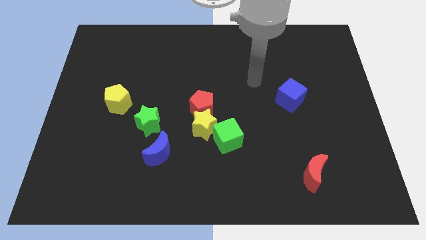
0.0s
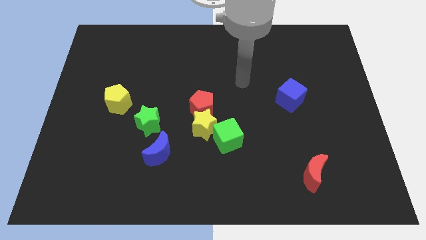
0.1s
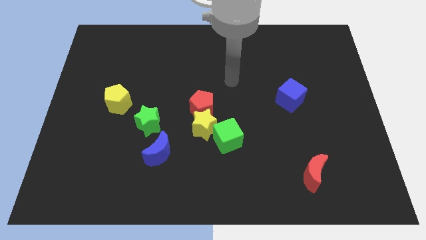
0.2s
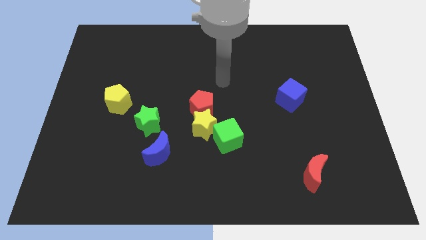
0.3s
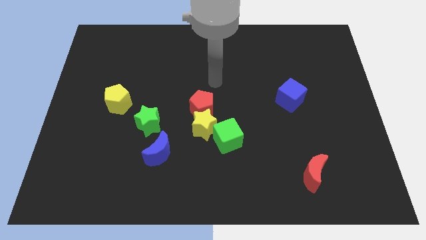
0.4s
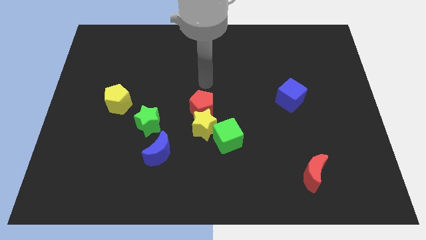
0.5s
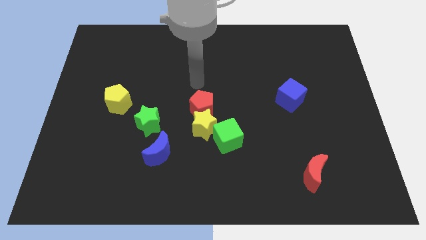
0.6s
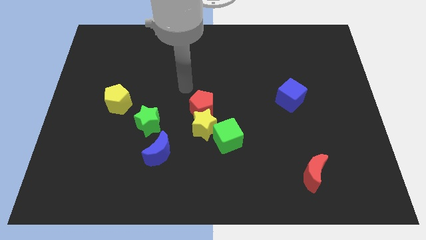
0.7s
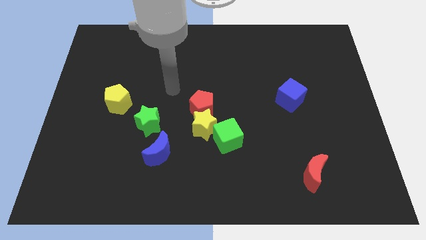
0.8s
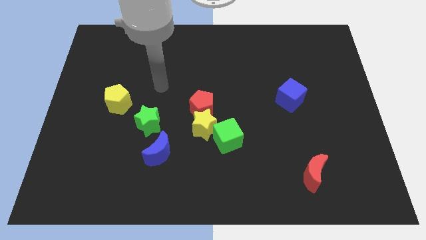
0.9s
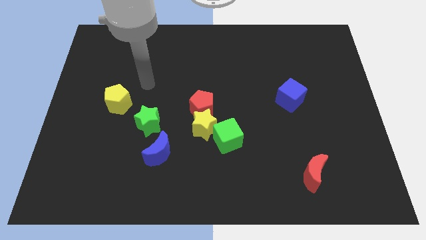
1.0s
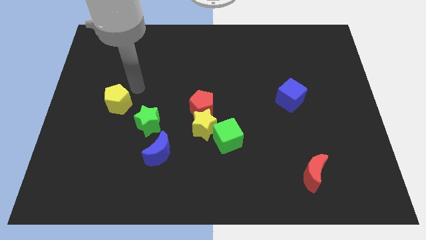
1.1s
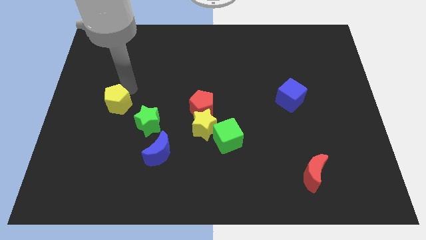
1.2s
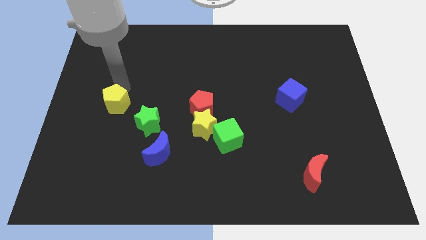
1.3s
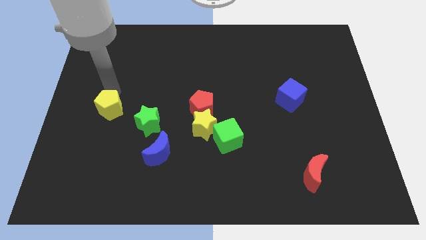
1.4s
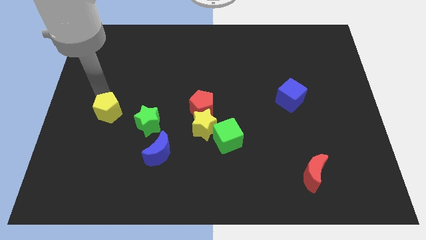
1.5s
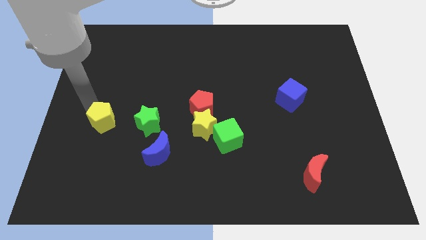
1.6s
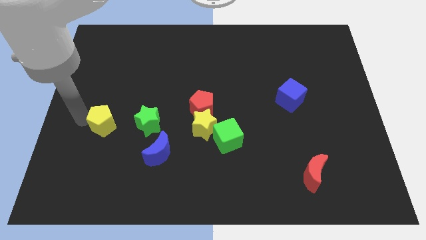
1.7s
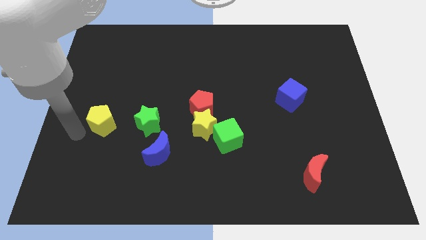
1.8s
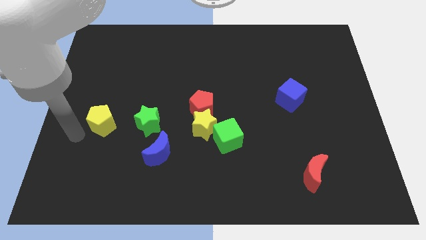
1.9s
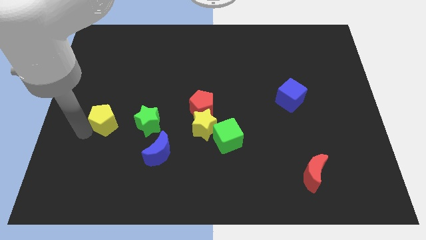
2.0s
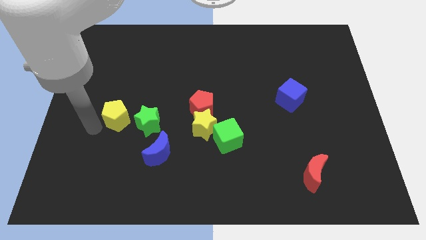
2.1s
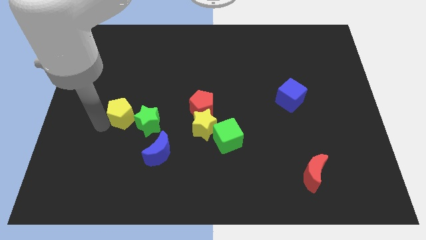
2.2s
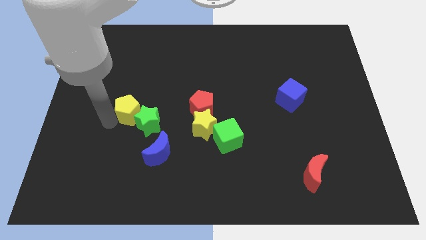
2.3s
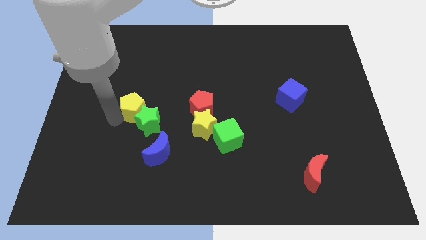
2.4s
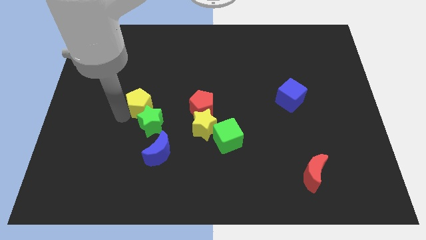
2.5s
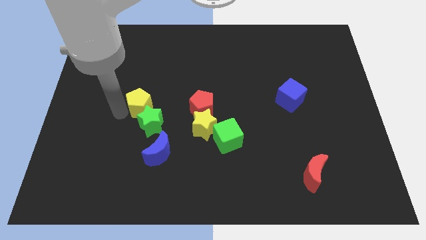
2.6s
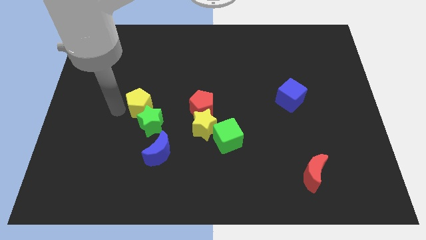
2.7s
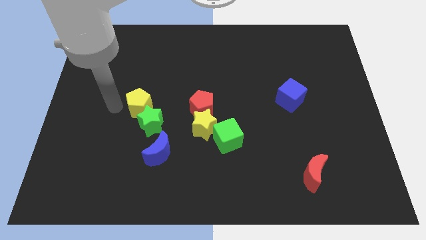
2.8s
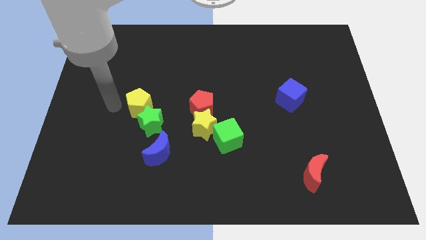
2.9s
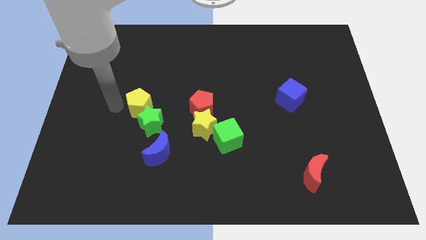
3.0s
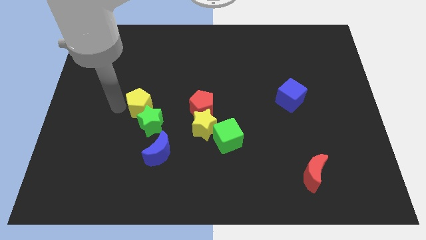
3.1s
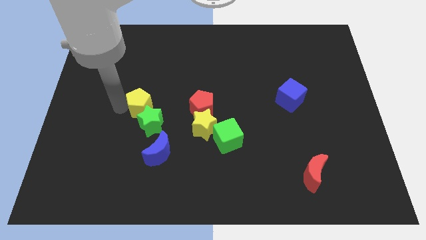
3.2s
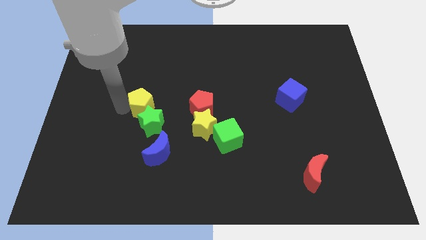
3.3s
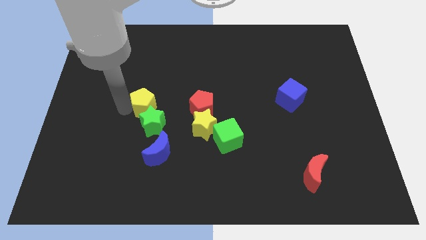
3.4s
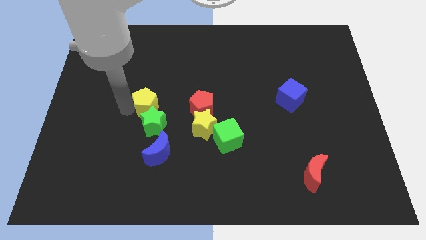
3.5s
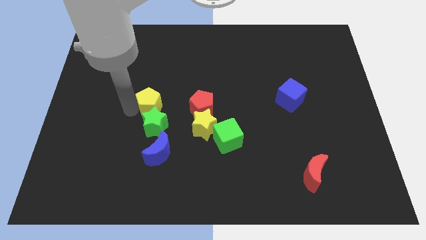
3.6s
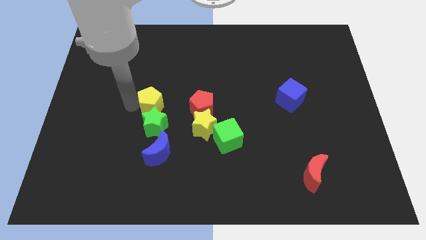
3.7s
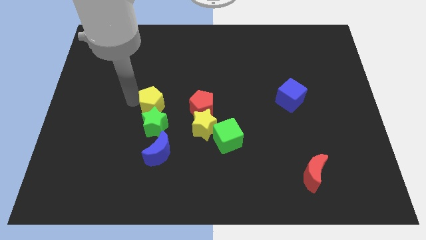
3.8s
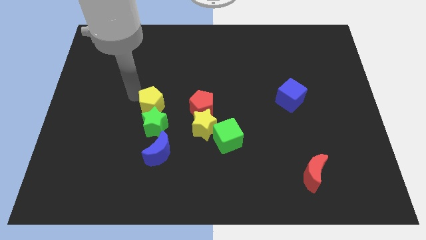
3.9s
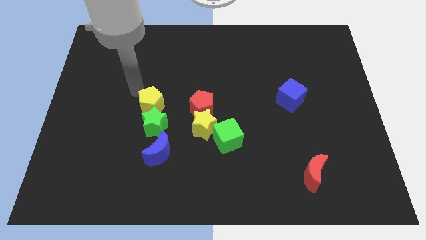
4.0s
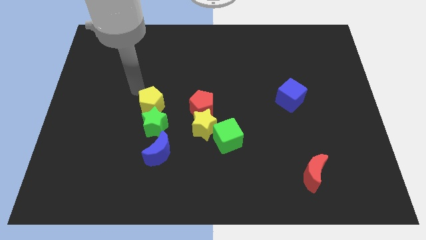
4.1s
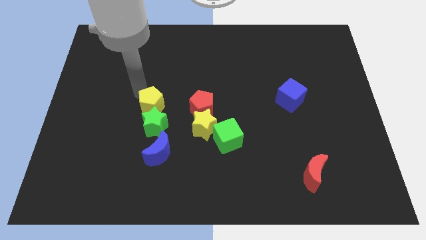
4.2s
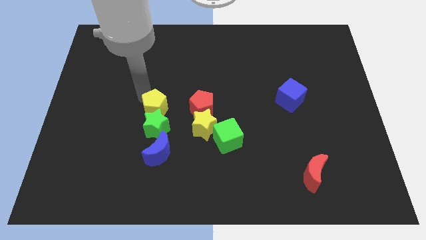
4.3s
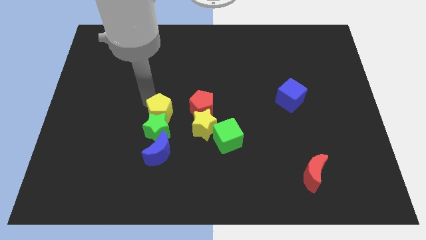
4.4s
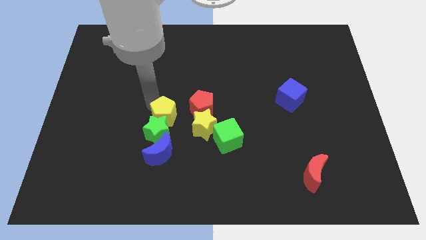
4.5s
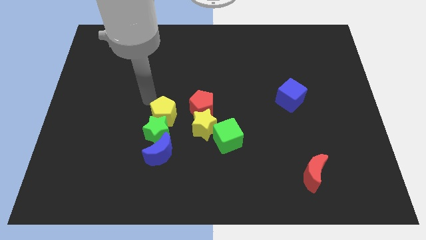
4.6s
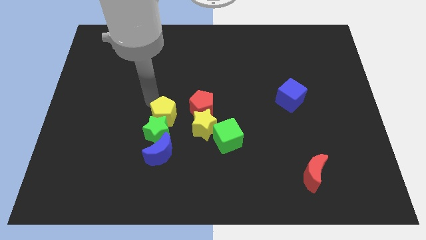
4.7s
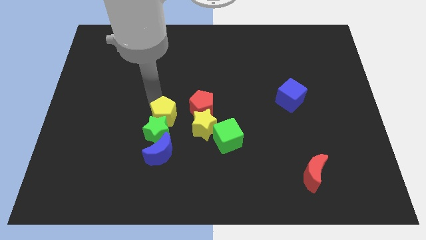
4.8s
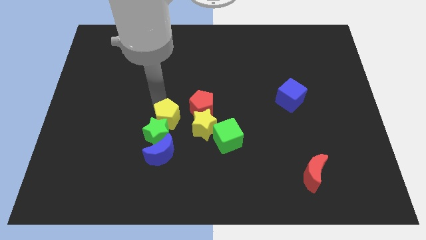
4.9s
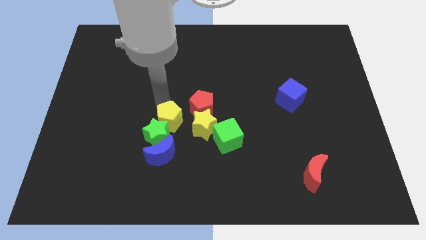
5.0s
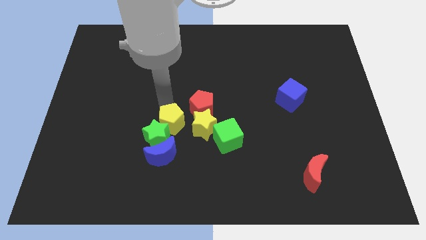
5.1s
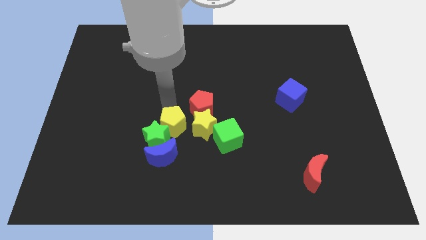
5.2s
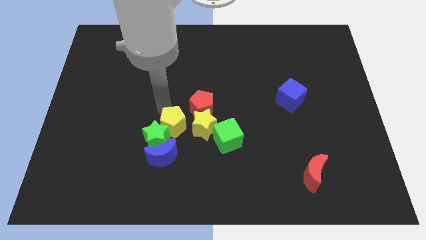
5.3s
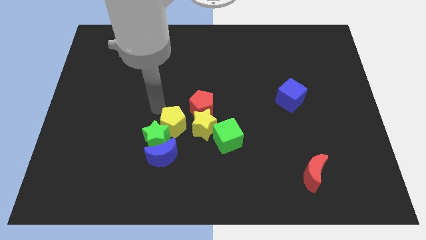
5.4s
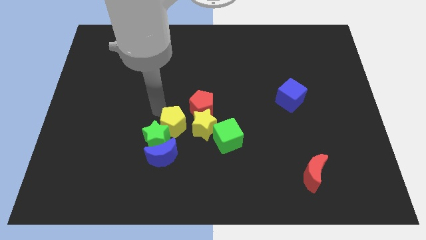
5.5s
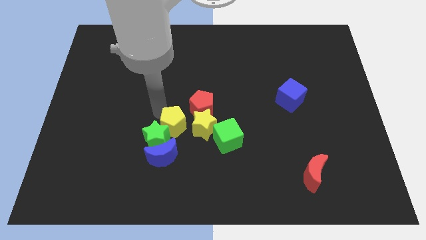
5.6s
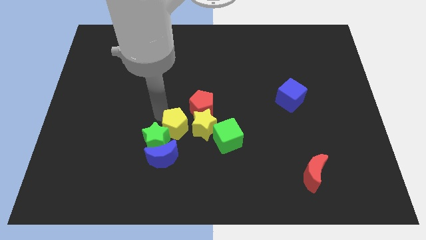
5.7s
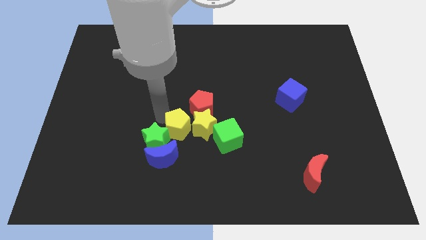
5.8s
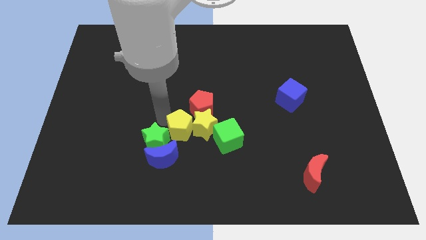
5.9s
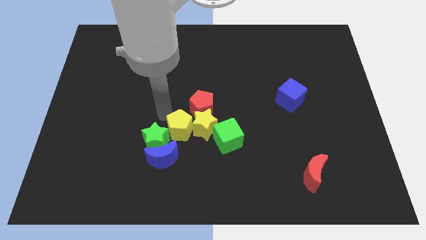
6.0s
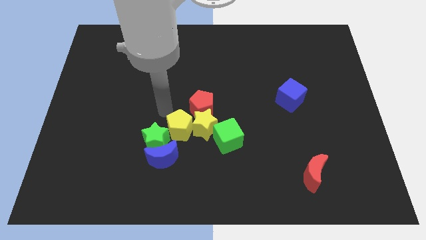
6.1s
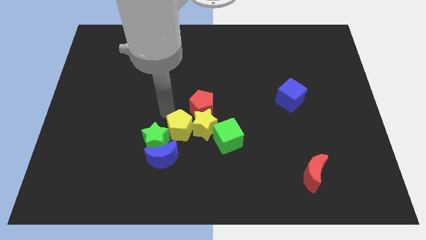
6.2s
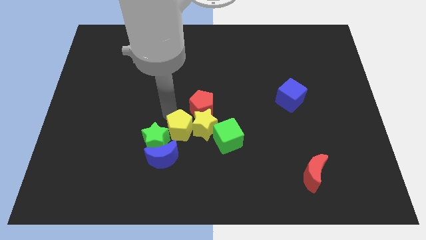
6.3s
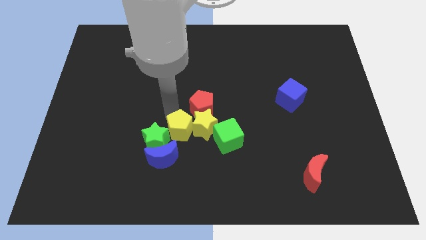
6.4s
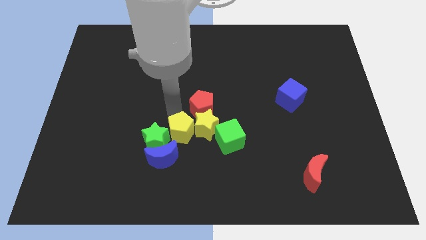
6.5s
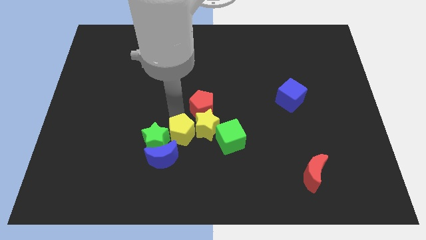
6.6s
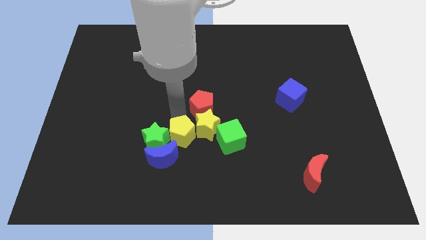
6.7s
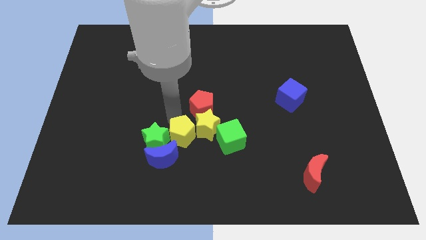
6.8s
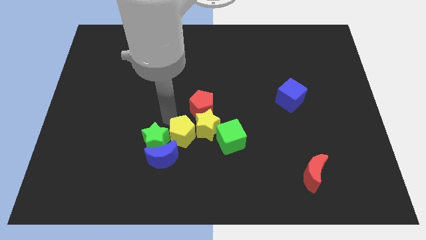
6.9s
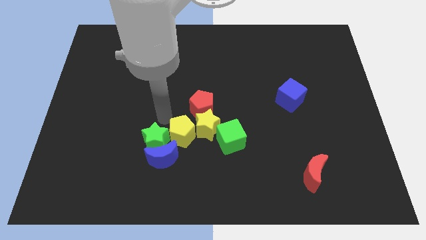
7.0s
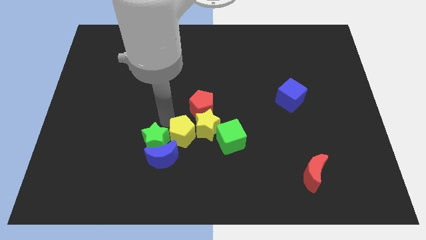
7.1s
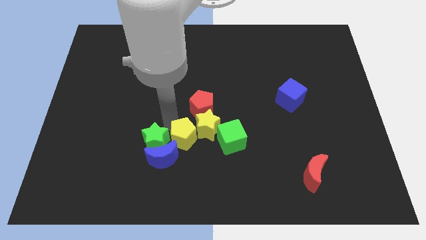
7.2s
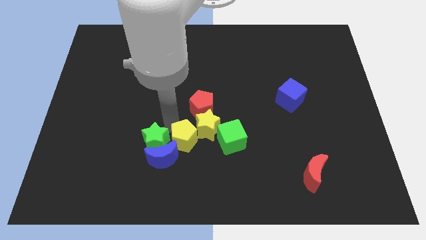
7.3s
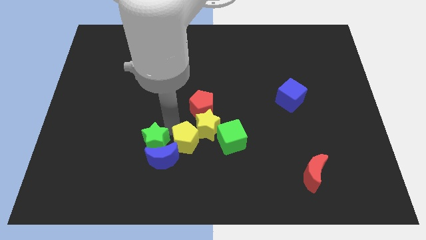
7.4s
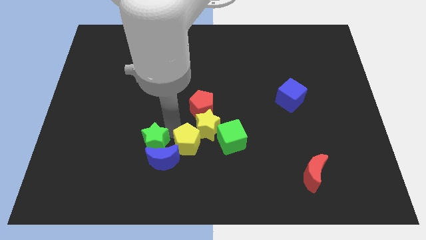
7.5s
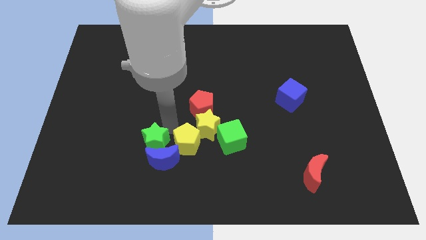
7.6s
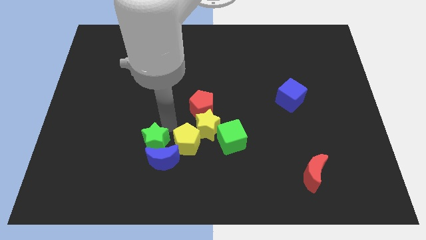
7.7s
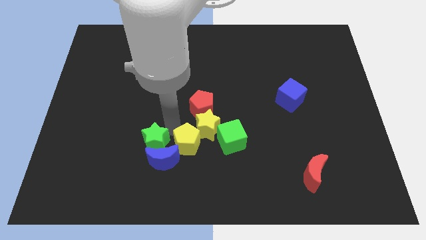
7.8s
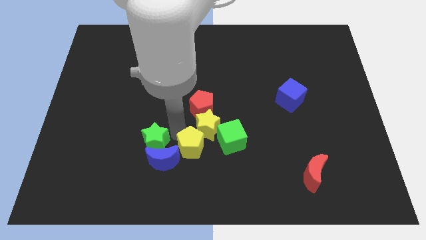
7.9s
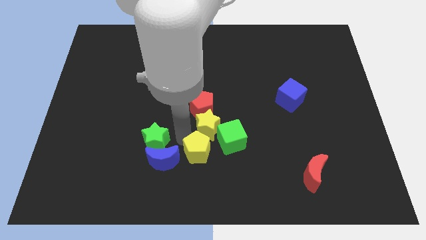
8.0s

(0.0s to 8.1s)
put the yellow pentagon to the bottom left of the green cube

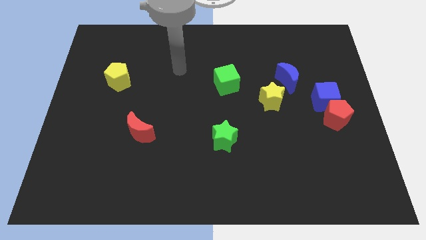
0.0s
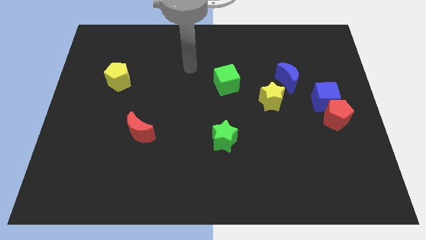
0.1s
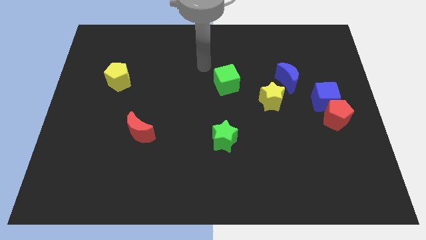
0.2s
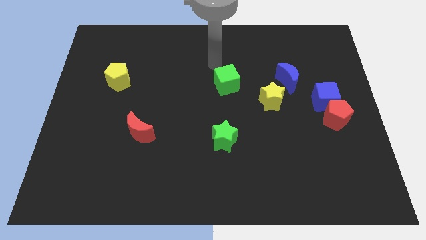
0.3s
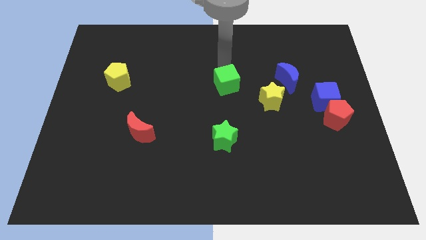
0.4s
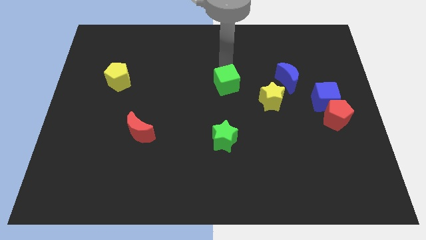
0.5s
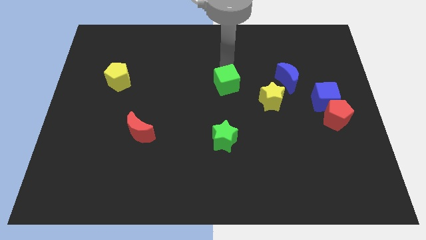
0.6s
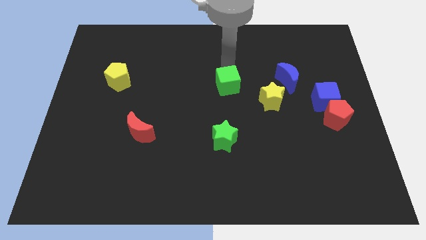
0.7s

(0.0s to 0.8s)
push the green cube left of the yellow star
